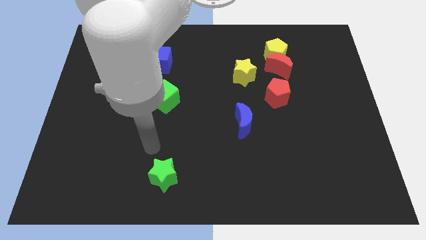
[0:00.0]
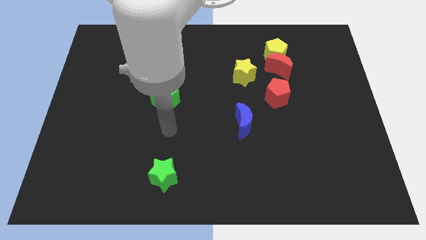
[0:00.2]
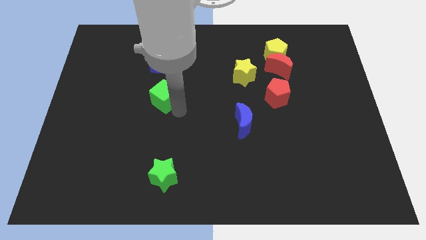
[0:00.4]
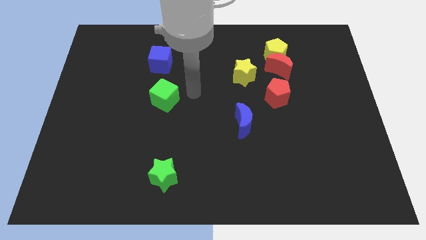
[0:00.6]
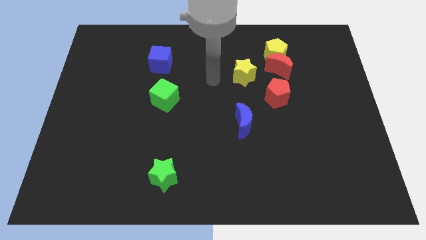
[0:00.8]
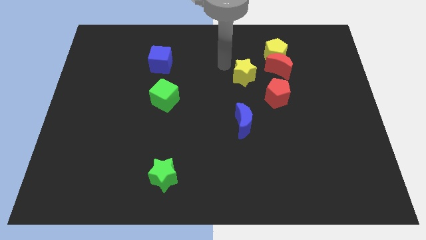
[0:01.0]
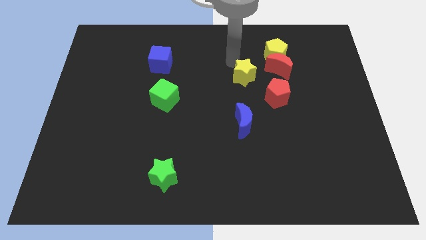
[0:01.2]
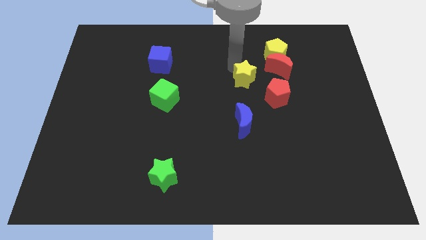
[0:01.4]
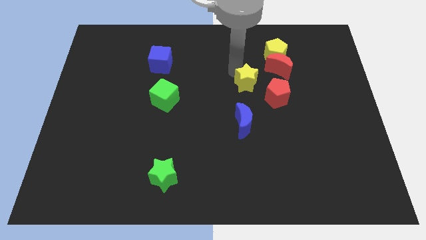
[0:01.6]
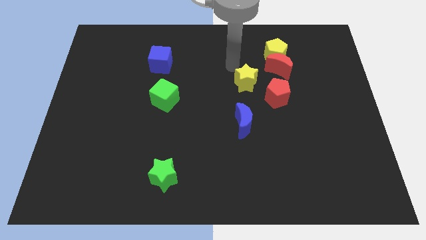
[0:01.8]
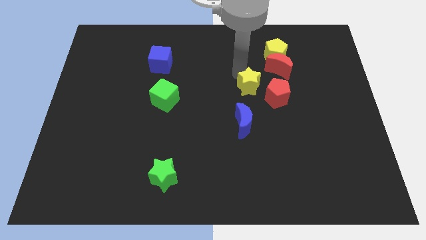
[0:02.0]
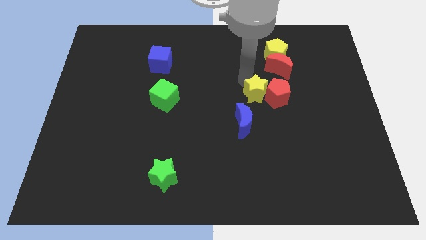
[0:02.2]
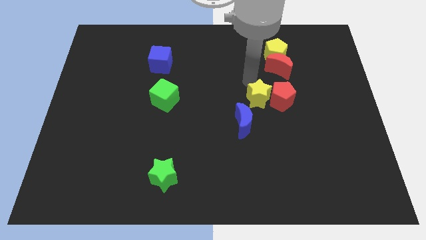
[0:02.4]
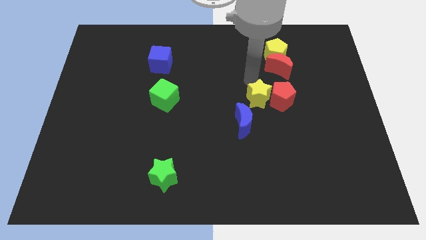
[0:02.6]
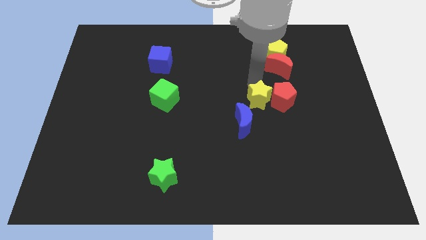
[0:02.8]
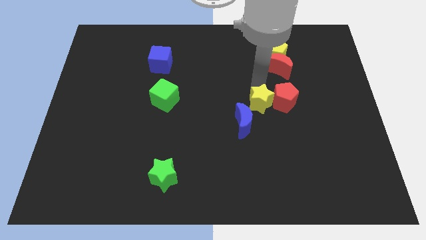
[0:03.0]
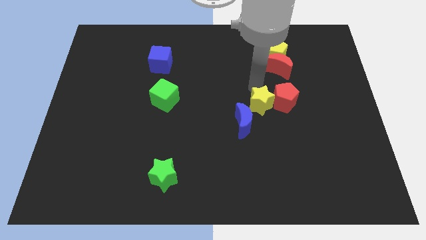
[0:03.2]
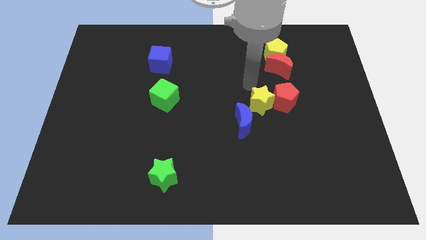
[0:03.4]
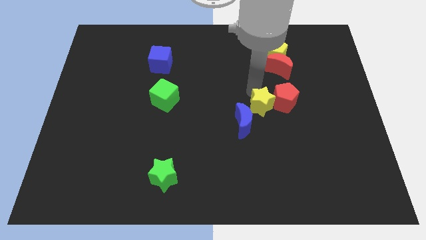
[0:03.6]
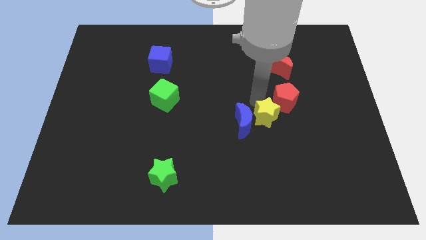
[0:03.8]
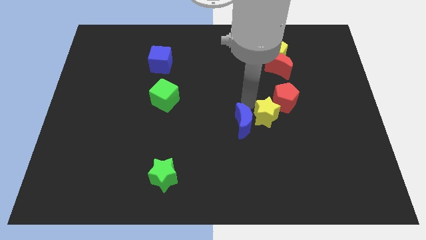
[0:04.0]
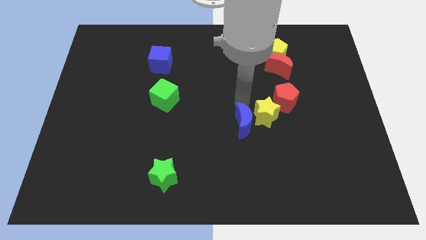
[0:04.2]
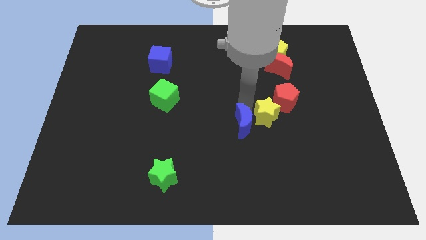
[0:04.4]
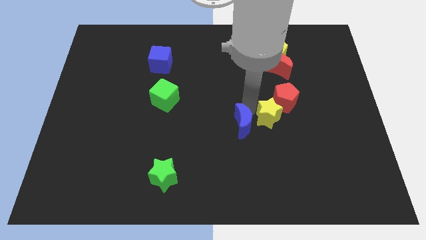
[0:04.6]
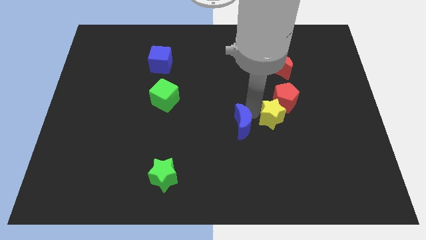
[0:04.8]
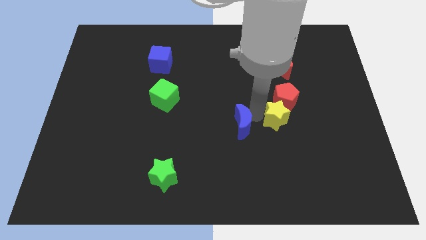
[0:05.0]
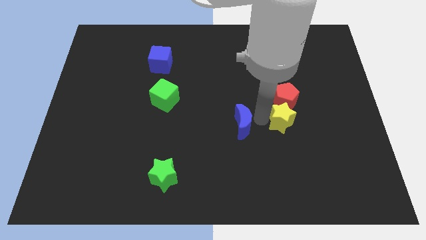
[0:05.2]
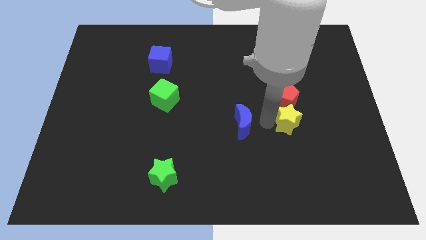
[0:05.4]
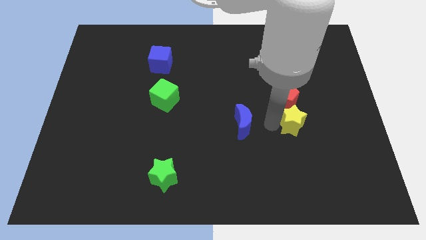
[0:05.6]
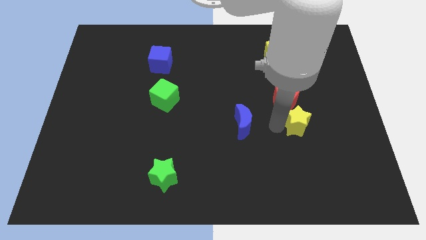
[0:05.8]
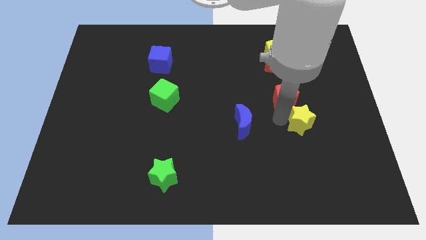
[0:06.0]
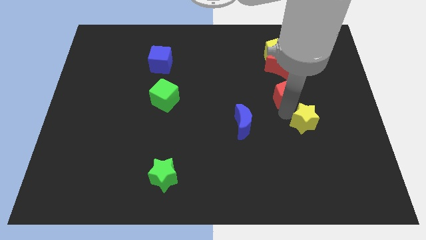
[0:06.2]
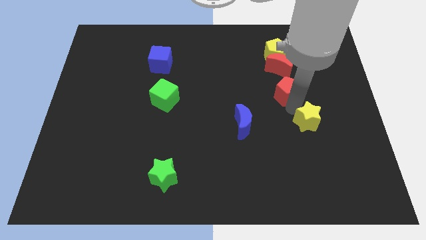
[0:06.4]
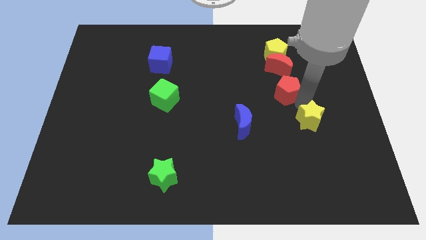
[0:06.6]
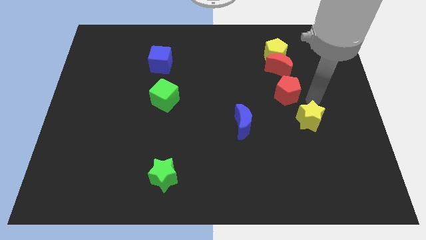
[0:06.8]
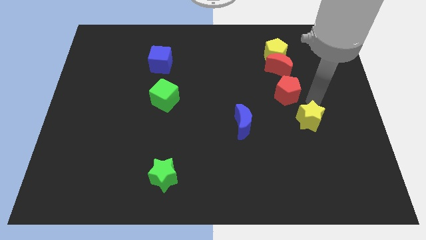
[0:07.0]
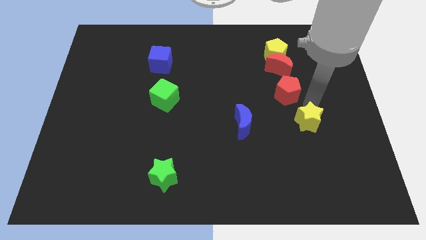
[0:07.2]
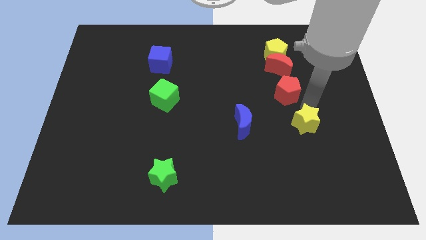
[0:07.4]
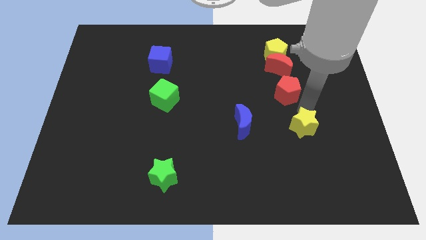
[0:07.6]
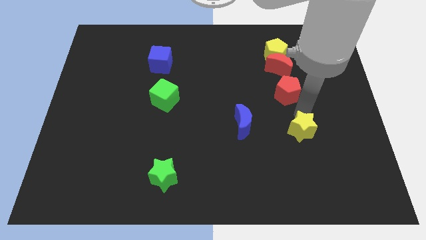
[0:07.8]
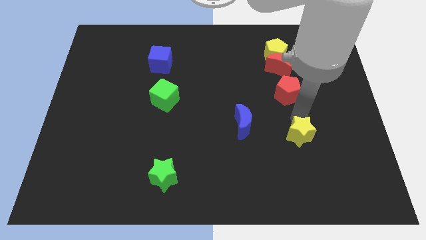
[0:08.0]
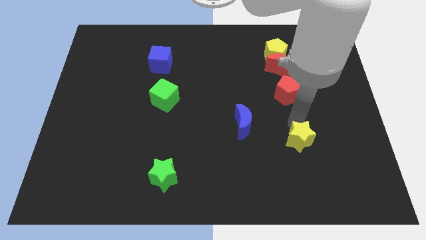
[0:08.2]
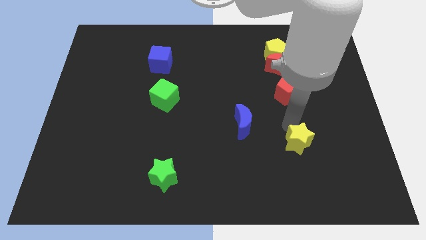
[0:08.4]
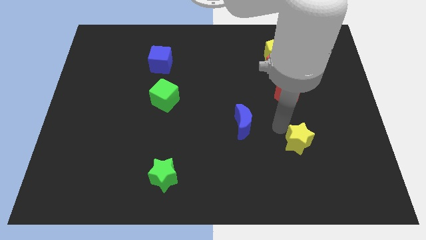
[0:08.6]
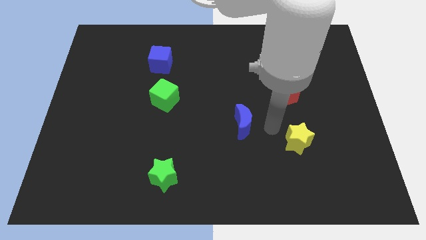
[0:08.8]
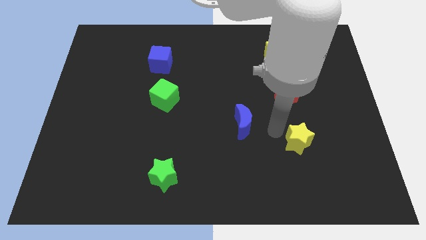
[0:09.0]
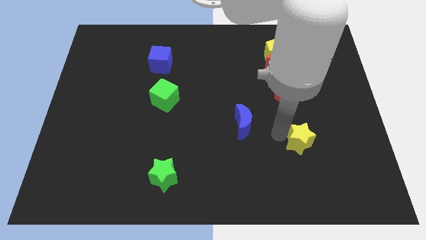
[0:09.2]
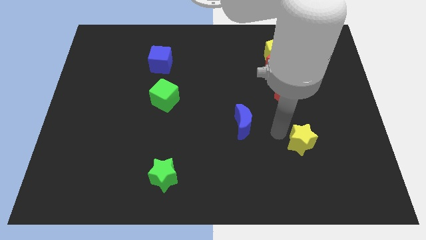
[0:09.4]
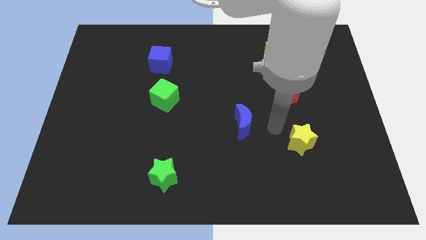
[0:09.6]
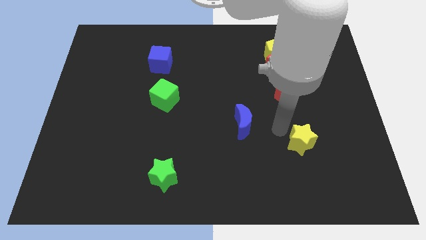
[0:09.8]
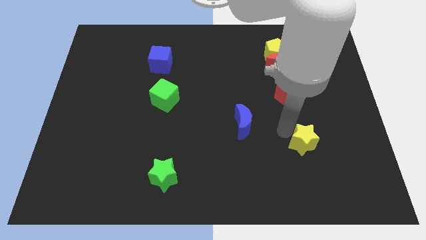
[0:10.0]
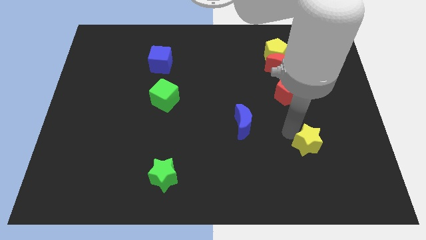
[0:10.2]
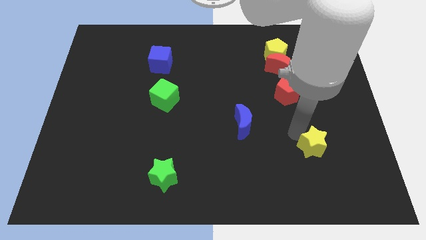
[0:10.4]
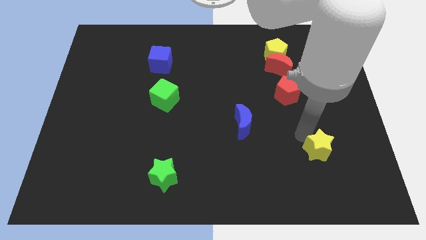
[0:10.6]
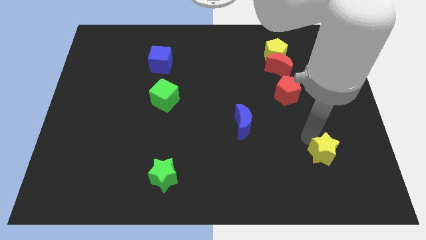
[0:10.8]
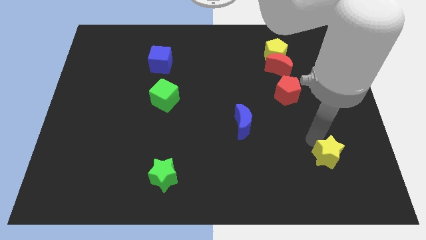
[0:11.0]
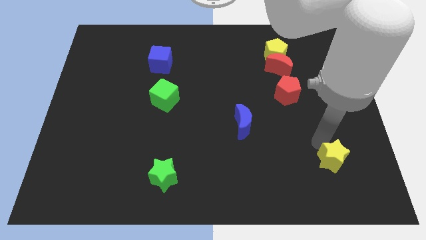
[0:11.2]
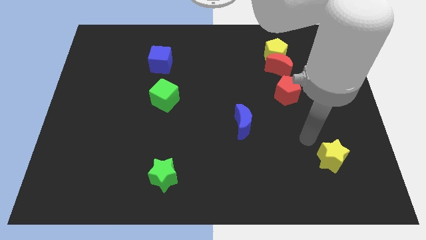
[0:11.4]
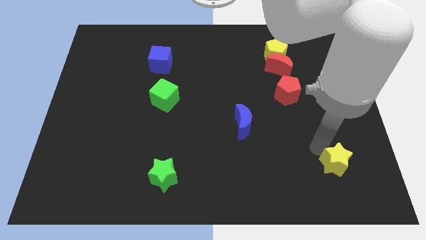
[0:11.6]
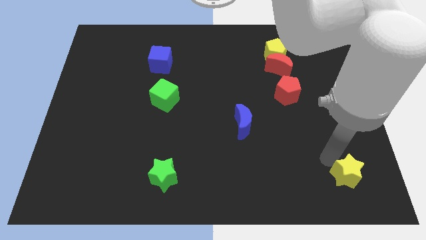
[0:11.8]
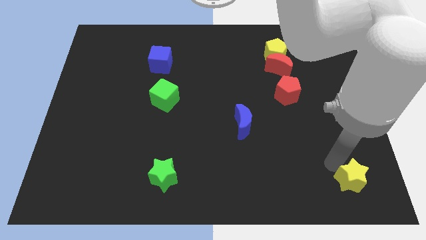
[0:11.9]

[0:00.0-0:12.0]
put the yellow star to the bottom right of the board

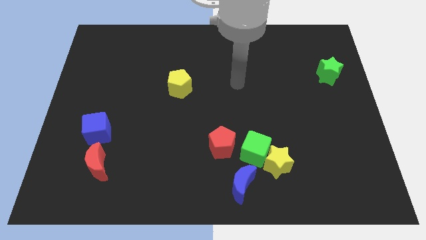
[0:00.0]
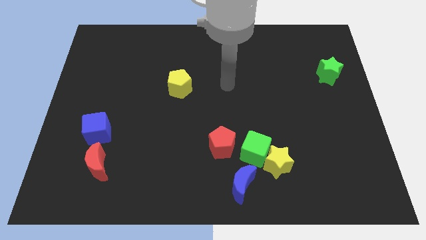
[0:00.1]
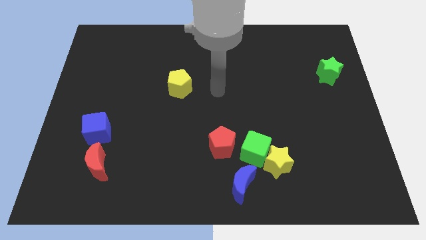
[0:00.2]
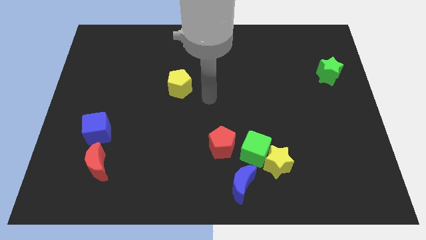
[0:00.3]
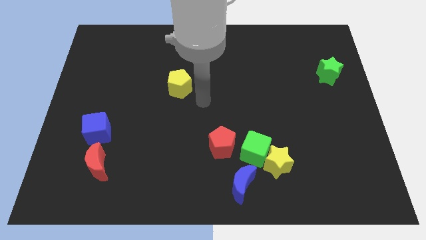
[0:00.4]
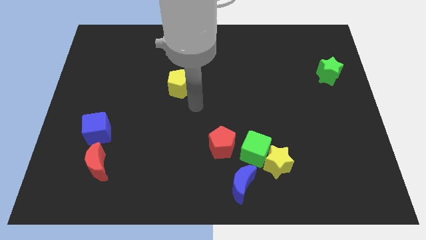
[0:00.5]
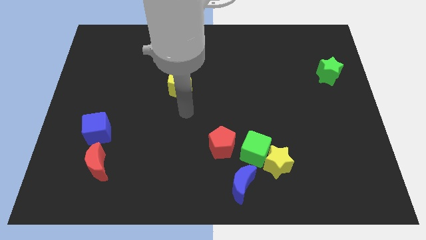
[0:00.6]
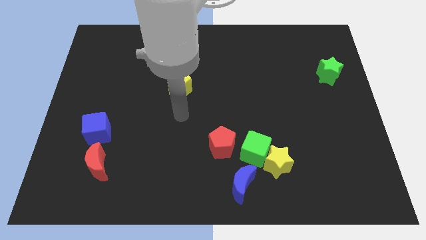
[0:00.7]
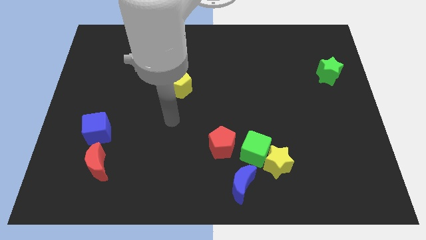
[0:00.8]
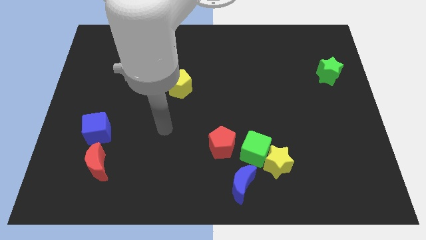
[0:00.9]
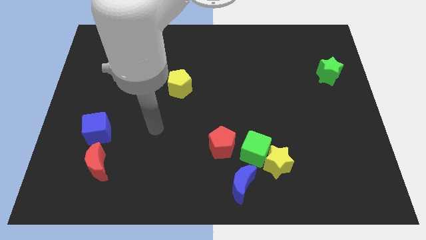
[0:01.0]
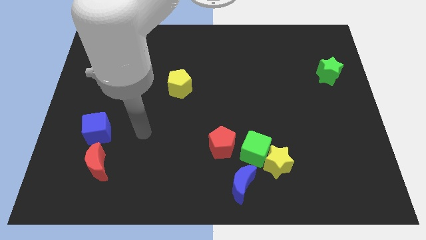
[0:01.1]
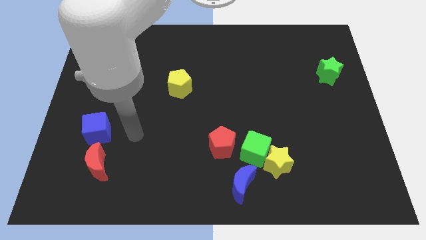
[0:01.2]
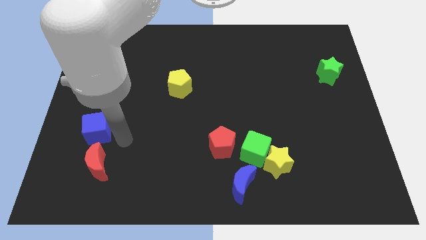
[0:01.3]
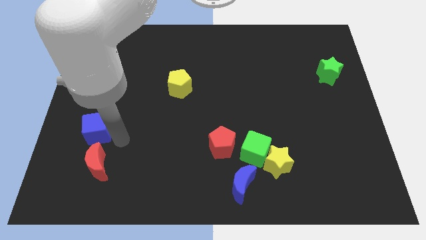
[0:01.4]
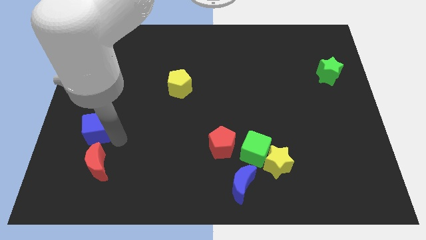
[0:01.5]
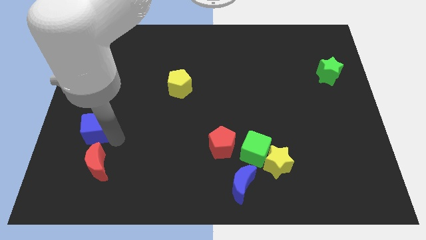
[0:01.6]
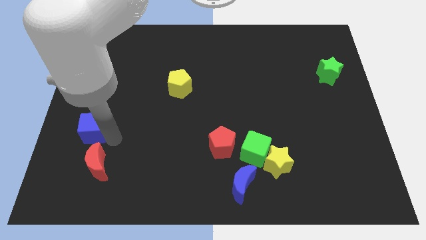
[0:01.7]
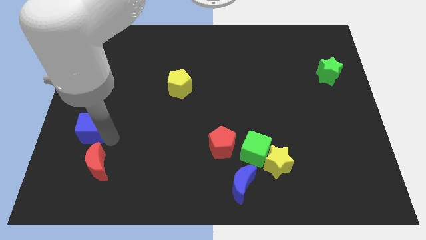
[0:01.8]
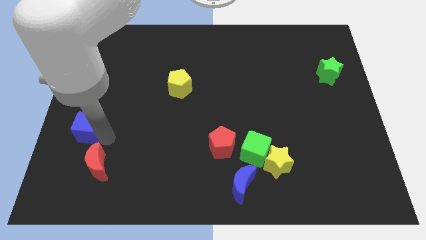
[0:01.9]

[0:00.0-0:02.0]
push the blue cube to the center left
